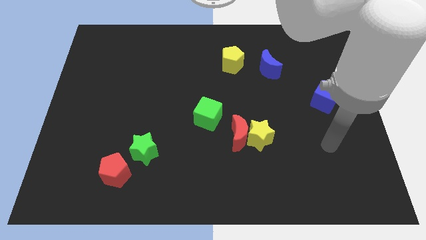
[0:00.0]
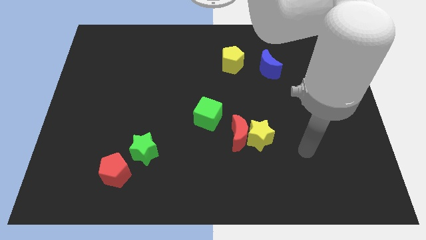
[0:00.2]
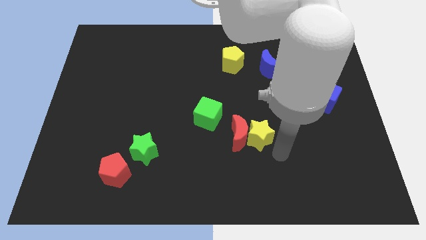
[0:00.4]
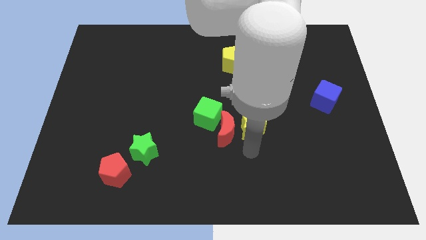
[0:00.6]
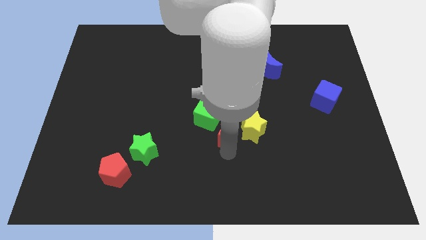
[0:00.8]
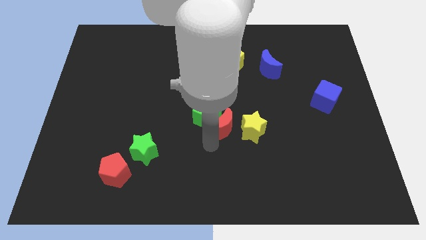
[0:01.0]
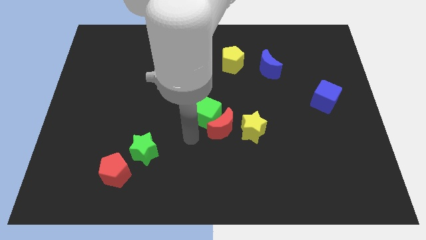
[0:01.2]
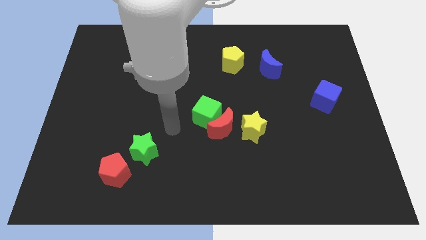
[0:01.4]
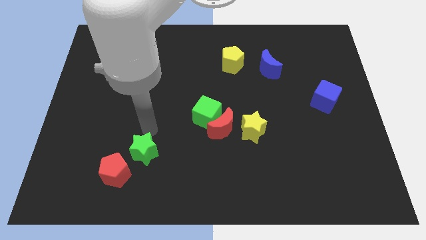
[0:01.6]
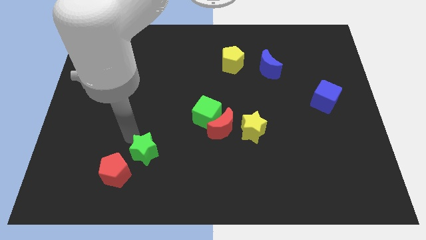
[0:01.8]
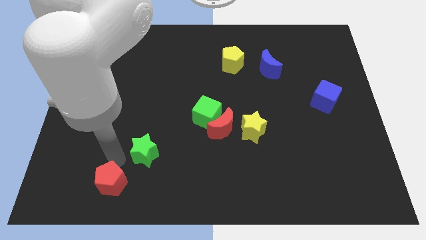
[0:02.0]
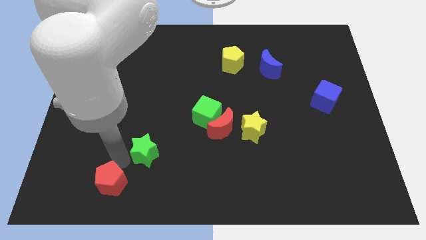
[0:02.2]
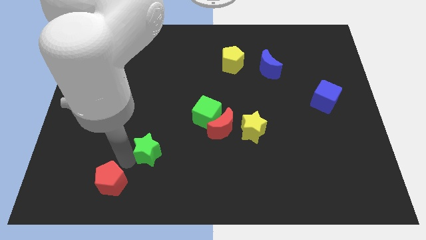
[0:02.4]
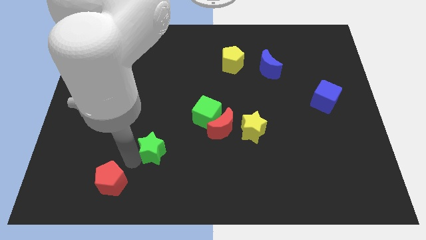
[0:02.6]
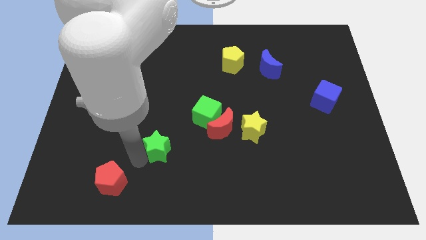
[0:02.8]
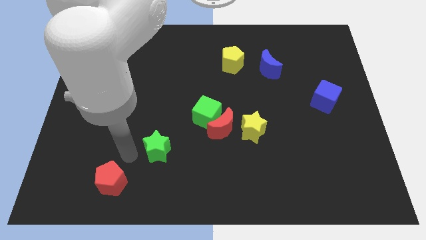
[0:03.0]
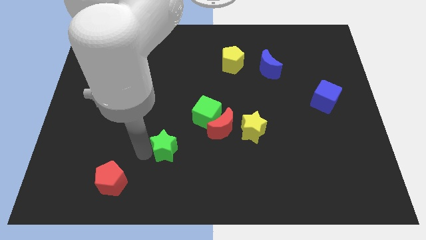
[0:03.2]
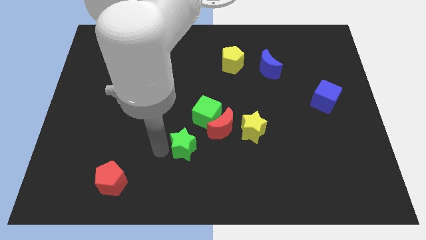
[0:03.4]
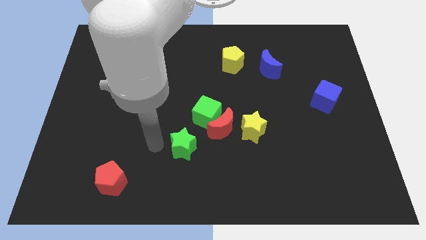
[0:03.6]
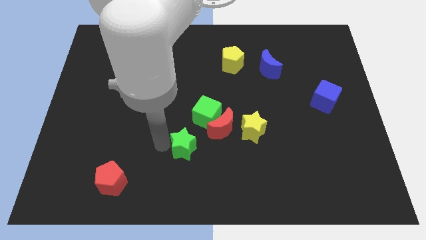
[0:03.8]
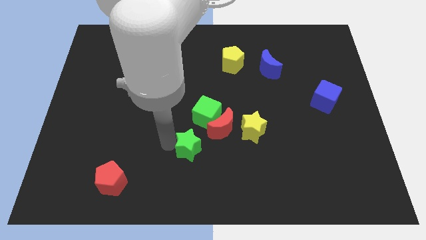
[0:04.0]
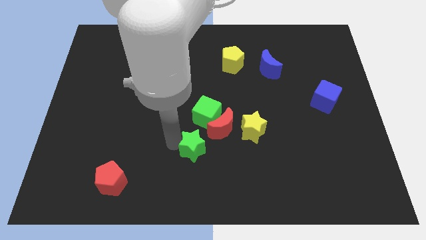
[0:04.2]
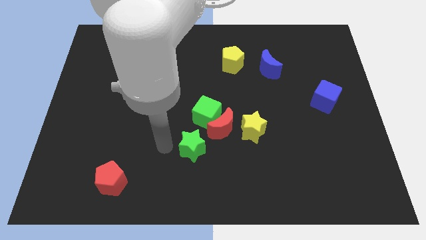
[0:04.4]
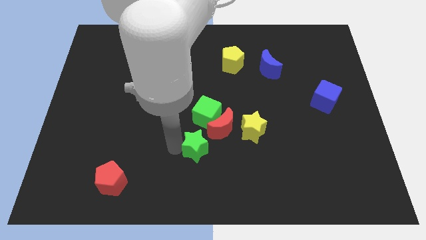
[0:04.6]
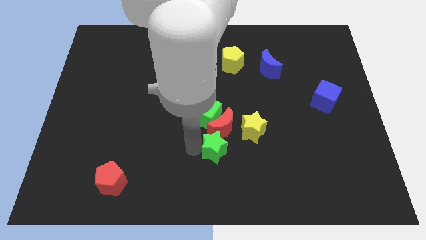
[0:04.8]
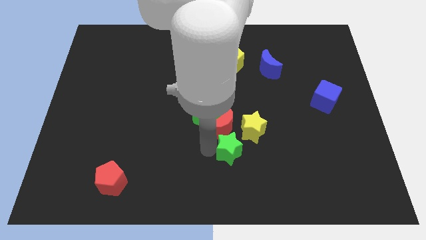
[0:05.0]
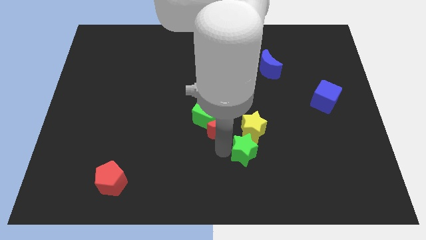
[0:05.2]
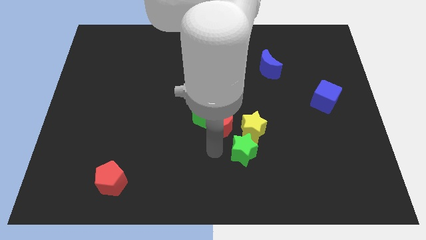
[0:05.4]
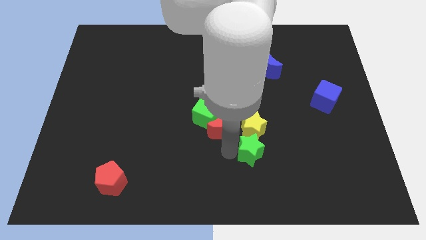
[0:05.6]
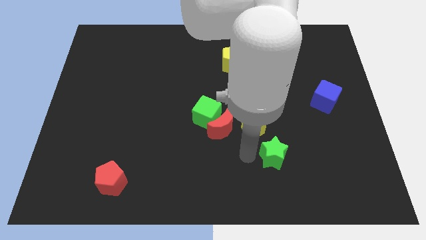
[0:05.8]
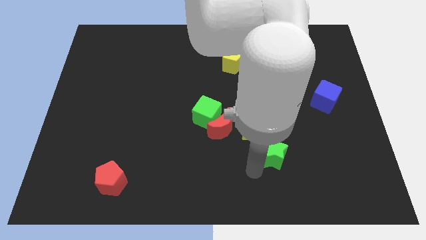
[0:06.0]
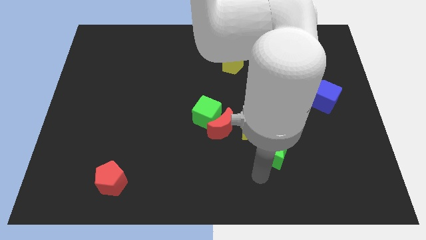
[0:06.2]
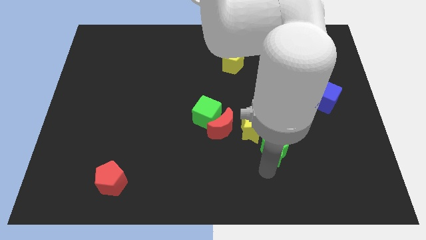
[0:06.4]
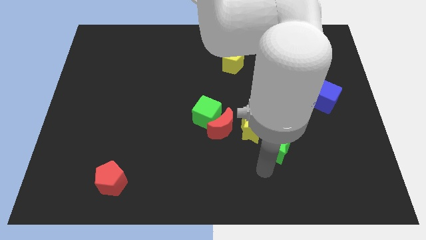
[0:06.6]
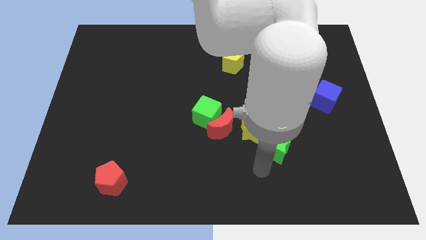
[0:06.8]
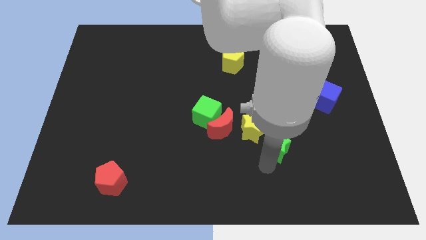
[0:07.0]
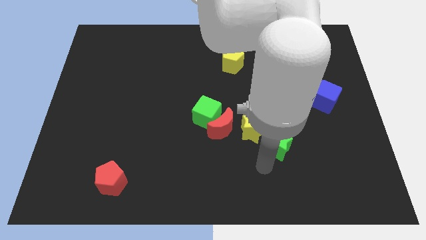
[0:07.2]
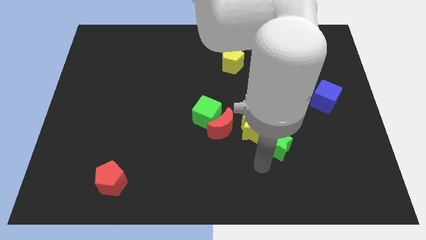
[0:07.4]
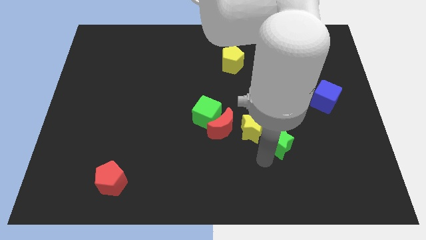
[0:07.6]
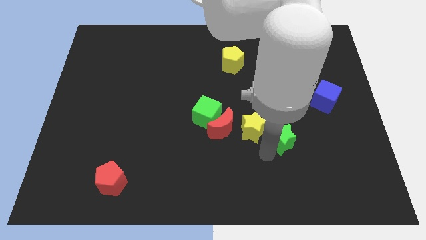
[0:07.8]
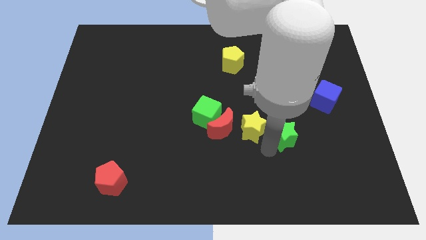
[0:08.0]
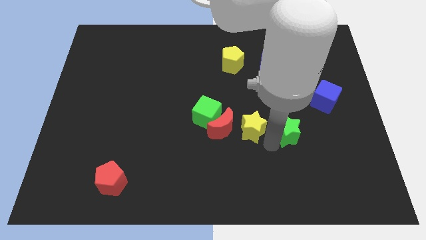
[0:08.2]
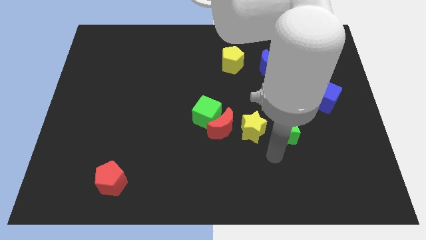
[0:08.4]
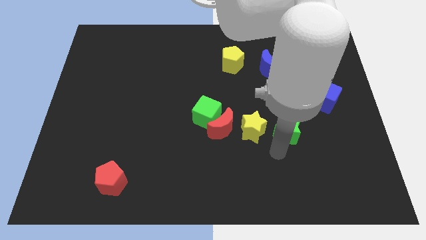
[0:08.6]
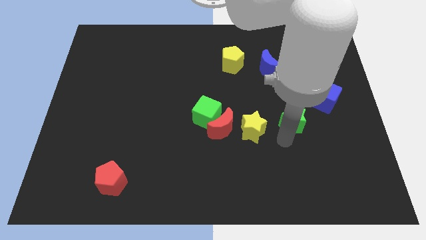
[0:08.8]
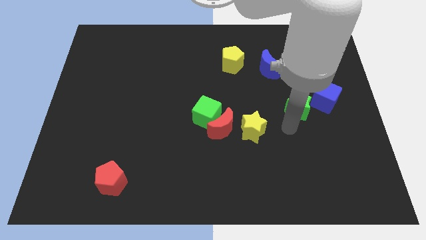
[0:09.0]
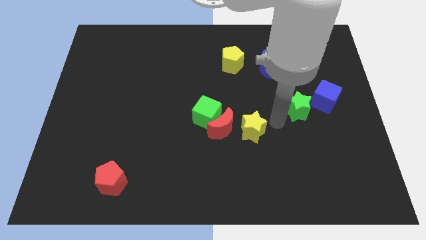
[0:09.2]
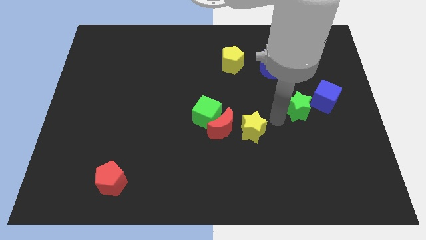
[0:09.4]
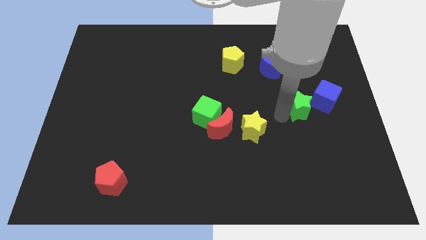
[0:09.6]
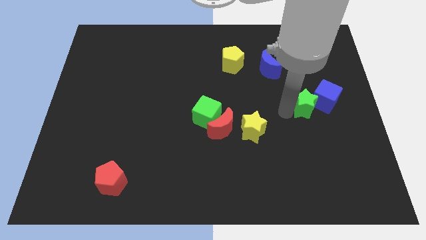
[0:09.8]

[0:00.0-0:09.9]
slide the green star towards the blue cube

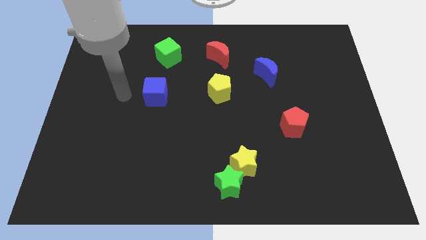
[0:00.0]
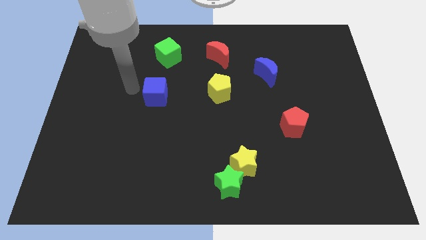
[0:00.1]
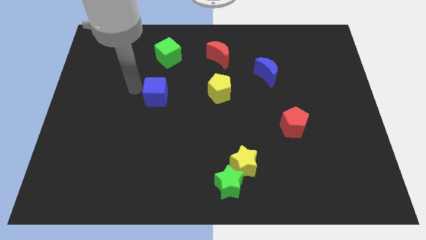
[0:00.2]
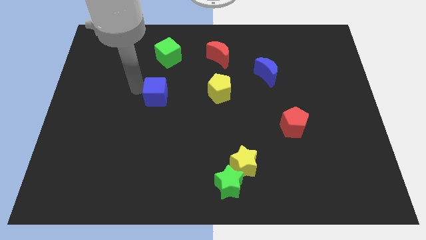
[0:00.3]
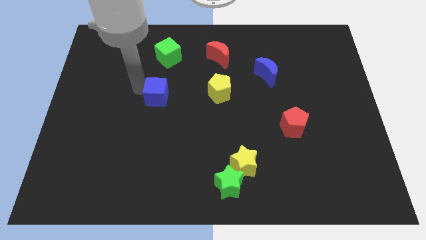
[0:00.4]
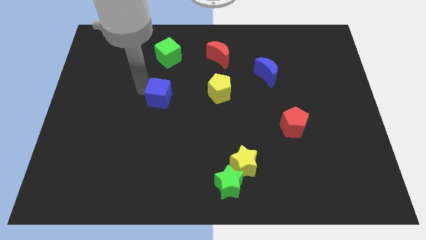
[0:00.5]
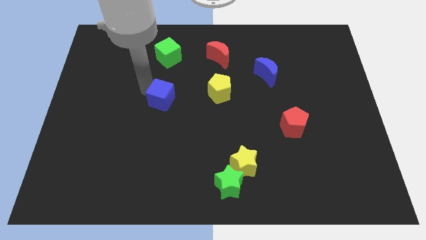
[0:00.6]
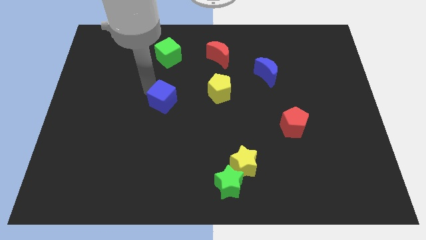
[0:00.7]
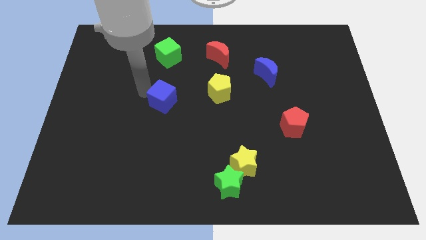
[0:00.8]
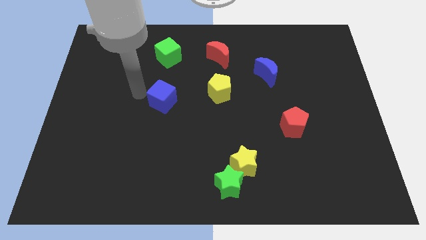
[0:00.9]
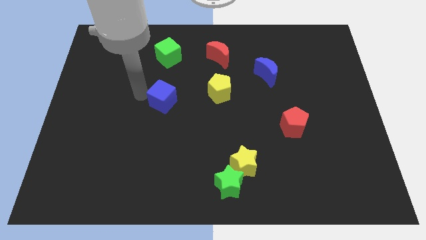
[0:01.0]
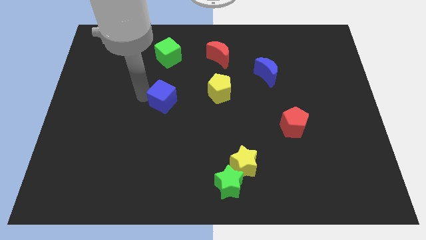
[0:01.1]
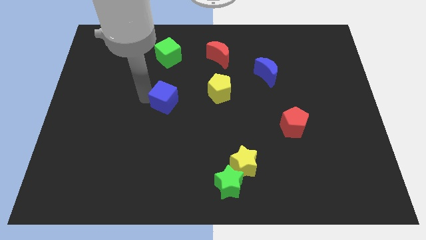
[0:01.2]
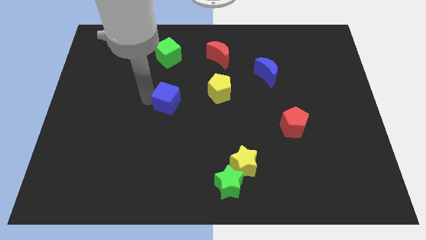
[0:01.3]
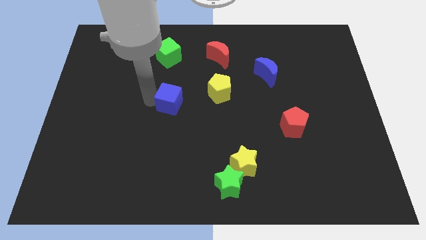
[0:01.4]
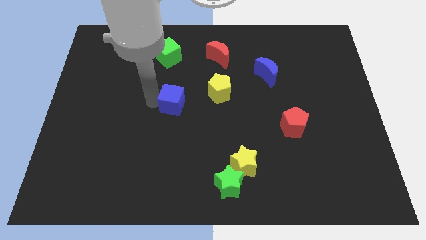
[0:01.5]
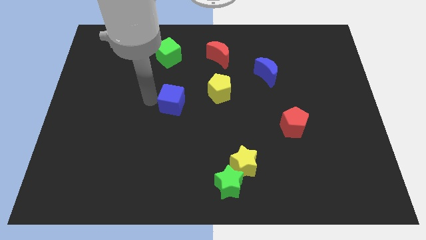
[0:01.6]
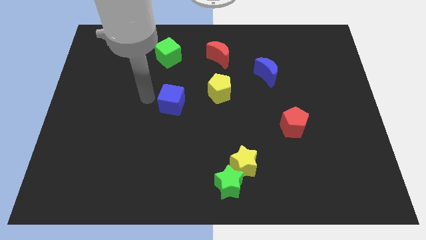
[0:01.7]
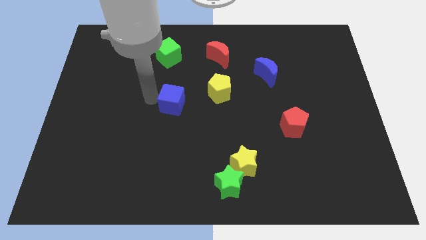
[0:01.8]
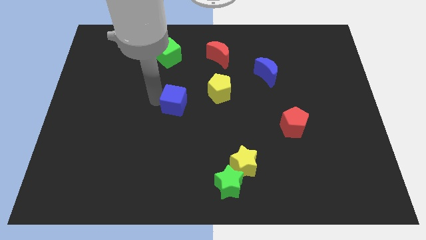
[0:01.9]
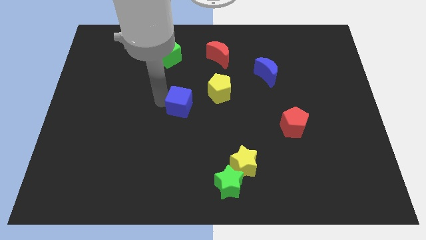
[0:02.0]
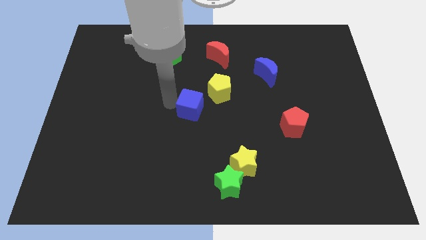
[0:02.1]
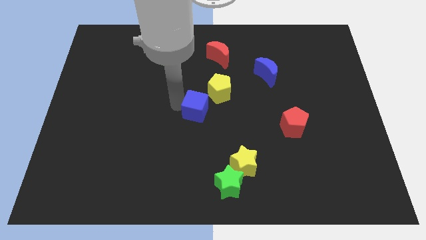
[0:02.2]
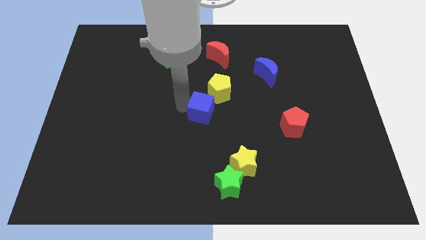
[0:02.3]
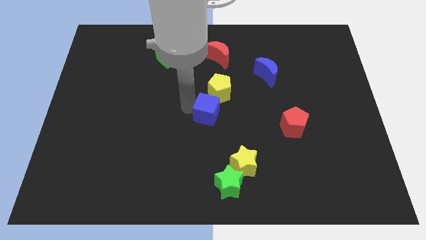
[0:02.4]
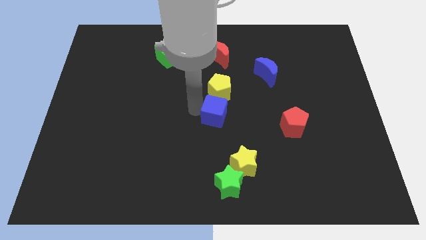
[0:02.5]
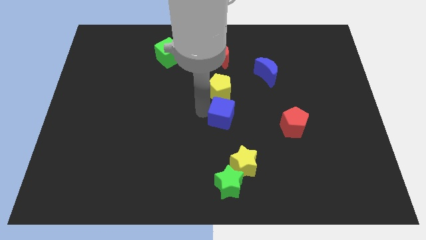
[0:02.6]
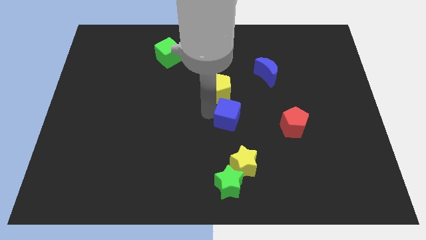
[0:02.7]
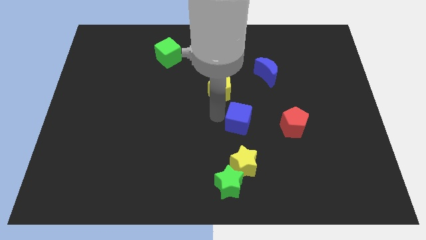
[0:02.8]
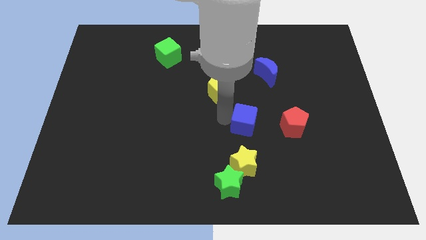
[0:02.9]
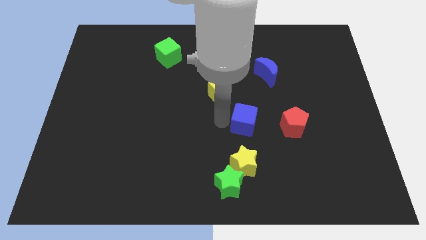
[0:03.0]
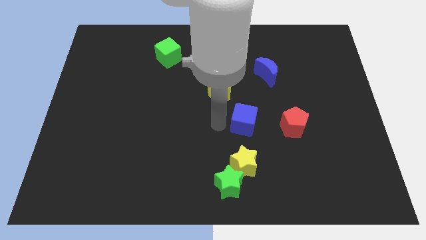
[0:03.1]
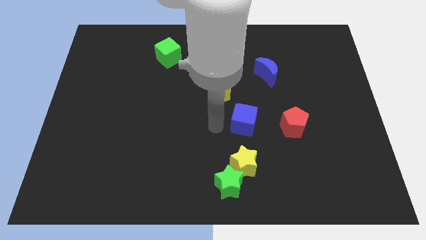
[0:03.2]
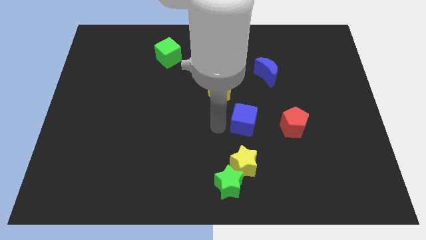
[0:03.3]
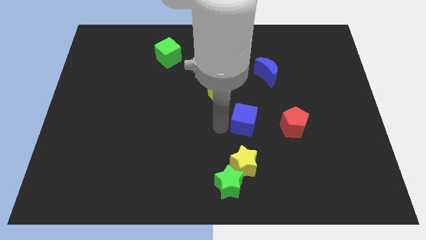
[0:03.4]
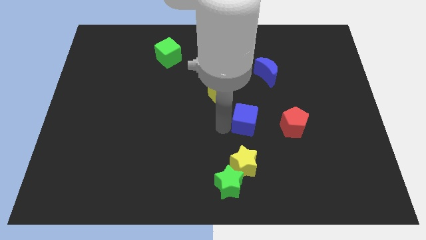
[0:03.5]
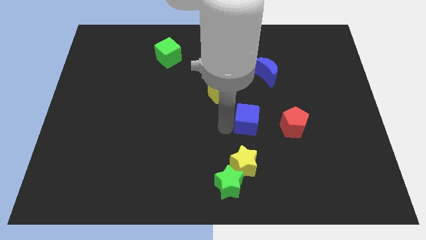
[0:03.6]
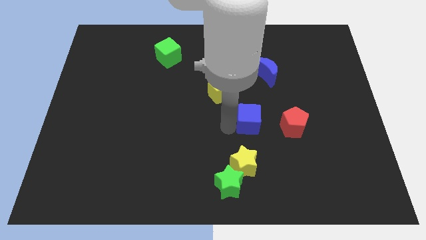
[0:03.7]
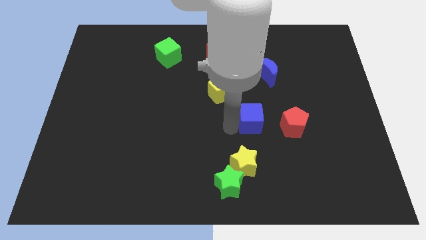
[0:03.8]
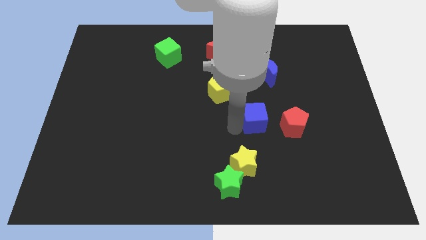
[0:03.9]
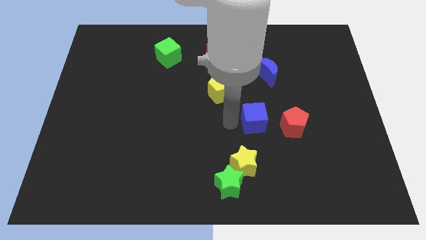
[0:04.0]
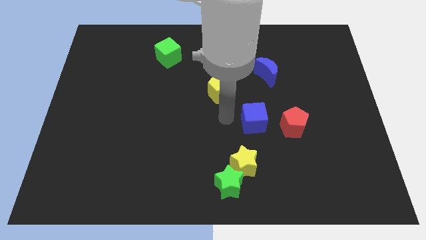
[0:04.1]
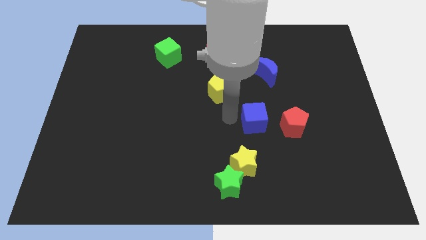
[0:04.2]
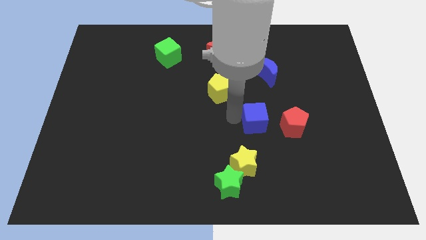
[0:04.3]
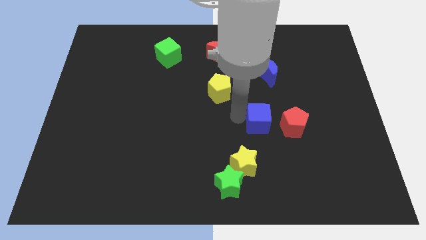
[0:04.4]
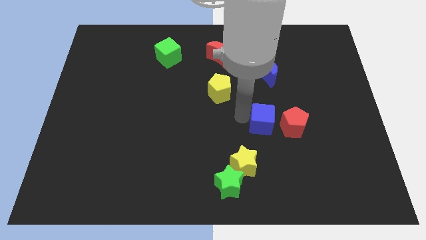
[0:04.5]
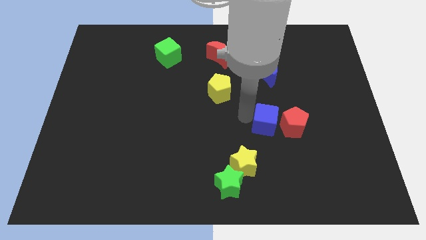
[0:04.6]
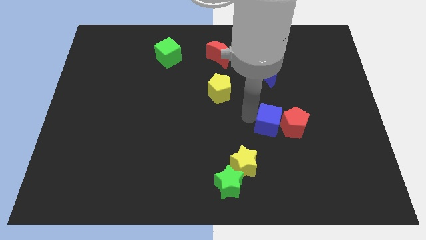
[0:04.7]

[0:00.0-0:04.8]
move the blue cube close to the red pentagon
